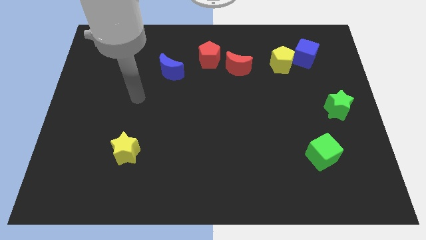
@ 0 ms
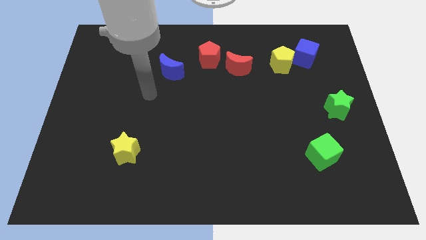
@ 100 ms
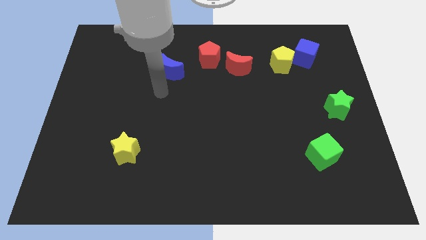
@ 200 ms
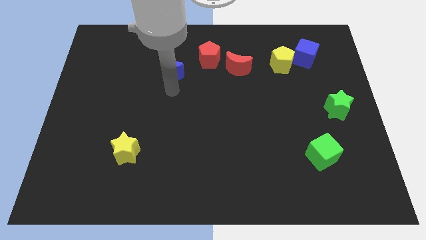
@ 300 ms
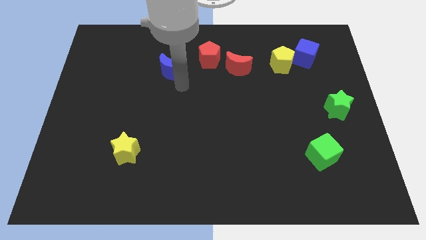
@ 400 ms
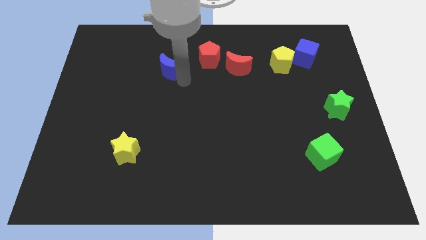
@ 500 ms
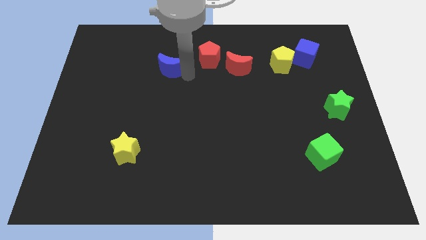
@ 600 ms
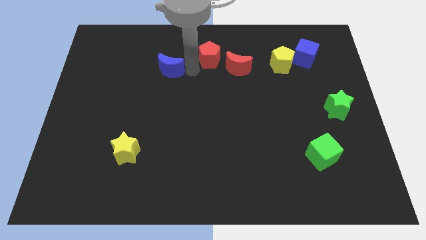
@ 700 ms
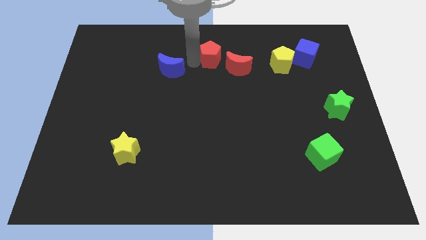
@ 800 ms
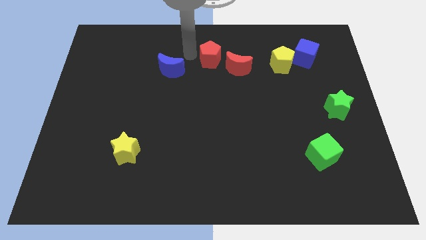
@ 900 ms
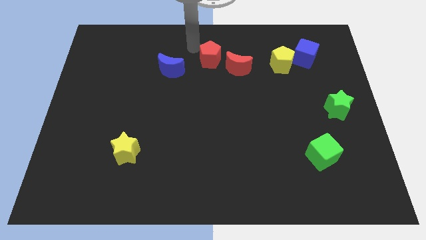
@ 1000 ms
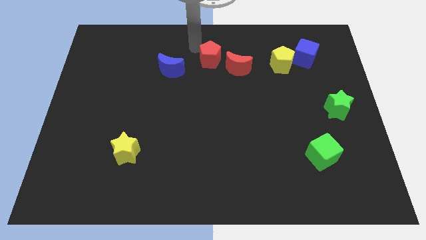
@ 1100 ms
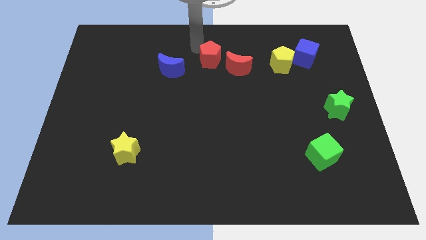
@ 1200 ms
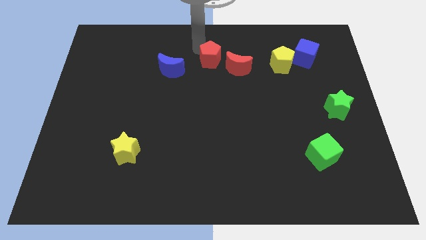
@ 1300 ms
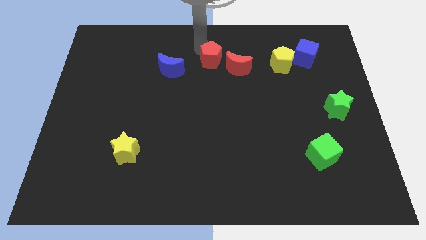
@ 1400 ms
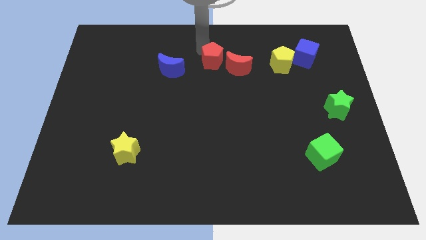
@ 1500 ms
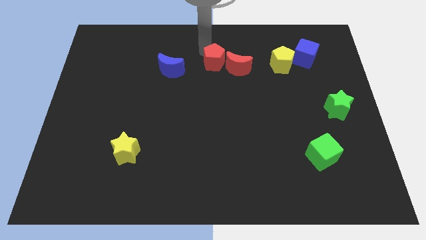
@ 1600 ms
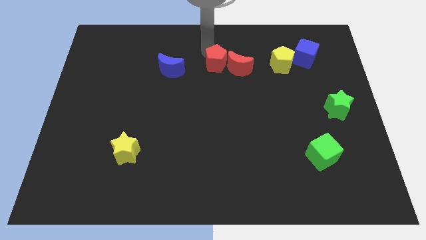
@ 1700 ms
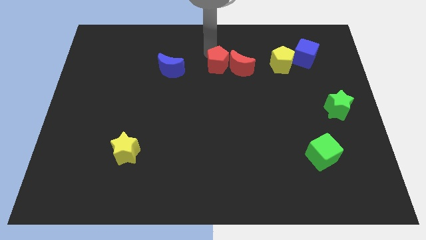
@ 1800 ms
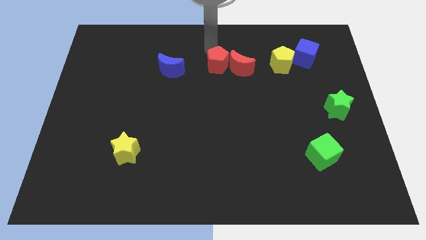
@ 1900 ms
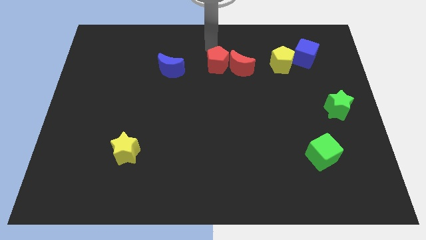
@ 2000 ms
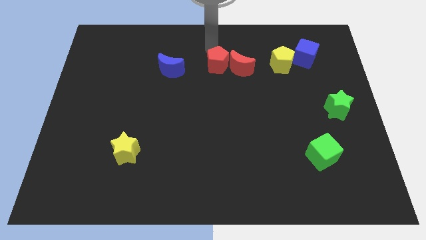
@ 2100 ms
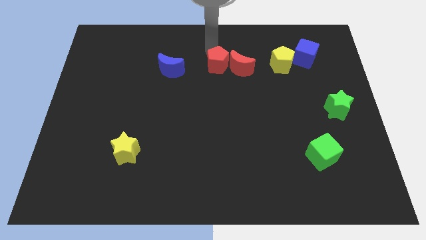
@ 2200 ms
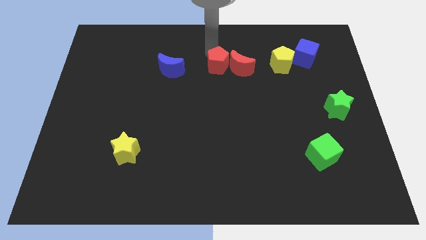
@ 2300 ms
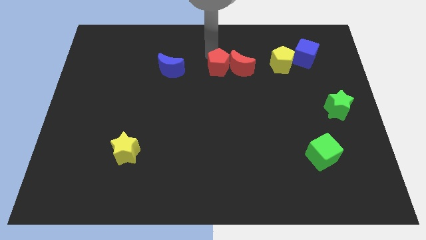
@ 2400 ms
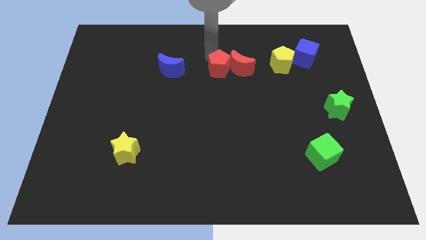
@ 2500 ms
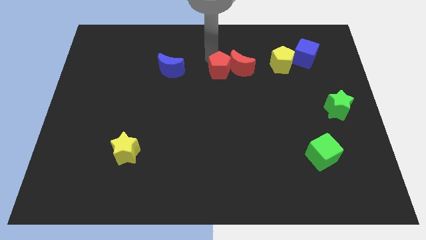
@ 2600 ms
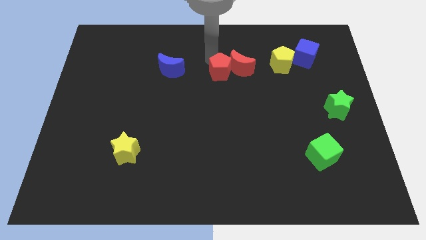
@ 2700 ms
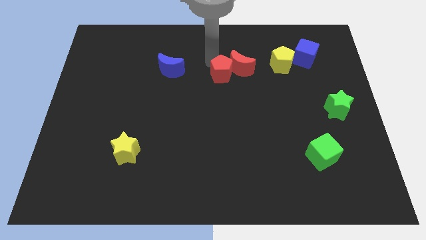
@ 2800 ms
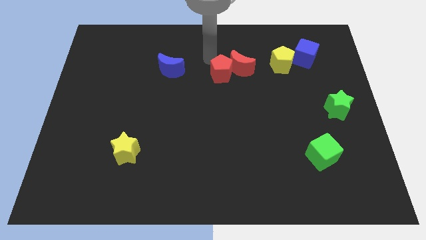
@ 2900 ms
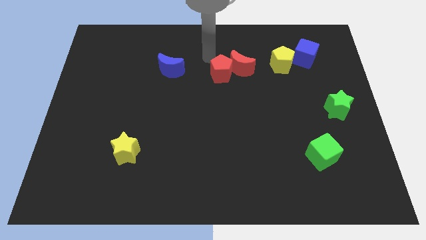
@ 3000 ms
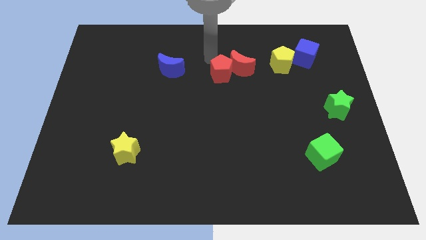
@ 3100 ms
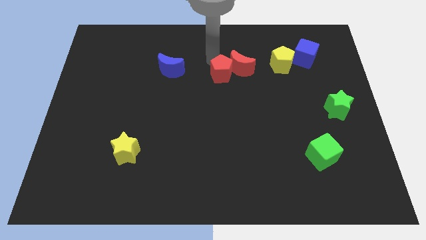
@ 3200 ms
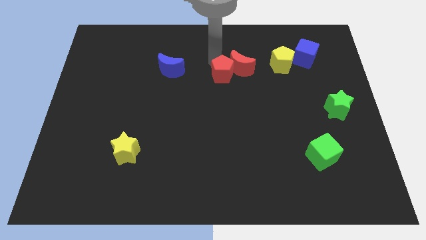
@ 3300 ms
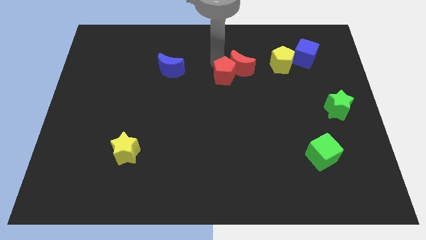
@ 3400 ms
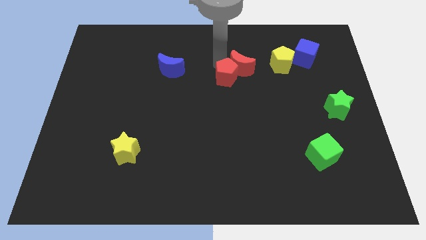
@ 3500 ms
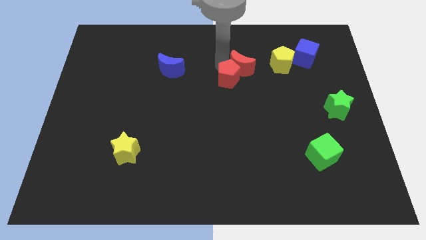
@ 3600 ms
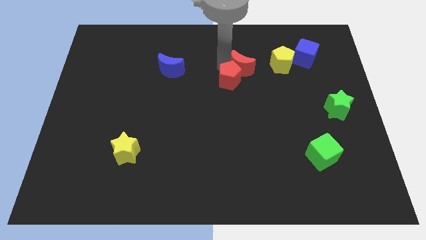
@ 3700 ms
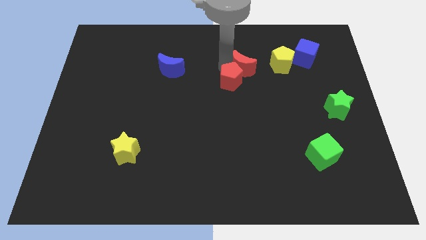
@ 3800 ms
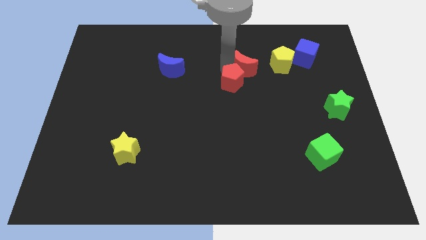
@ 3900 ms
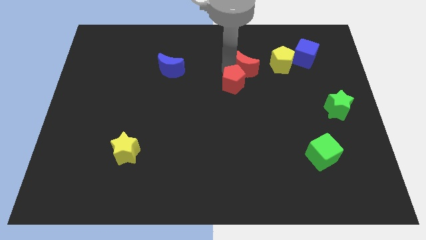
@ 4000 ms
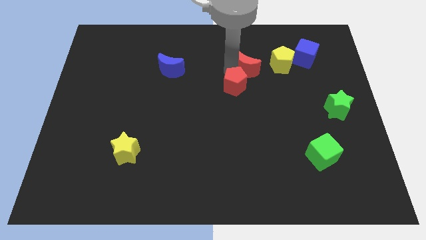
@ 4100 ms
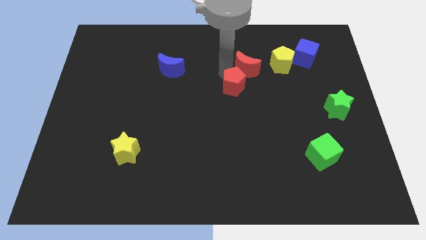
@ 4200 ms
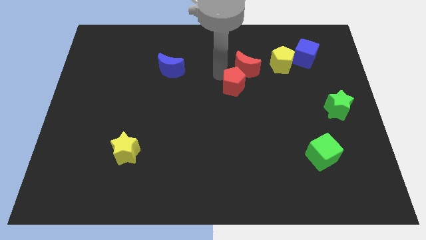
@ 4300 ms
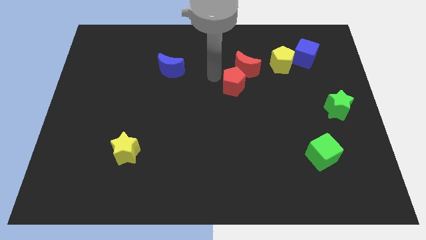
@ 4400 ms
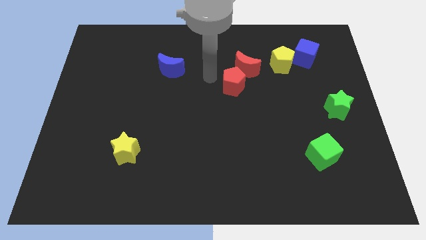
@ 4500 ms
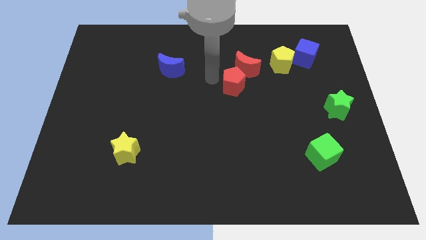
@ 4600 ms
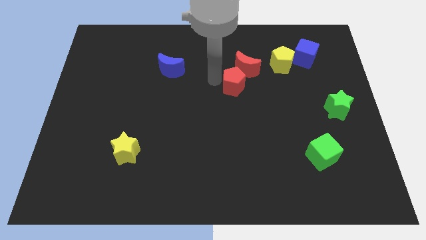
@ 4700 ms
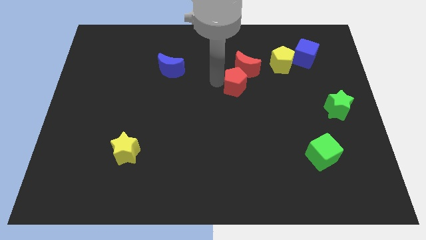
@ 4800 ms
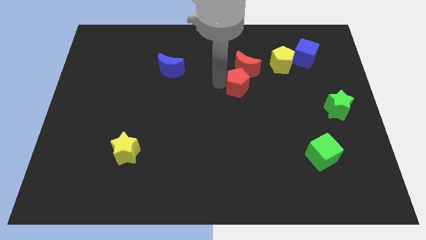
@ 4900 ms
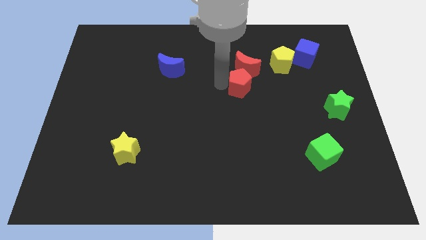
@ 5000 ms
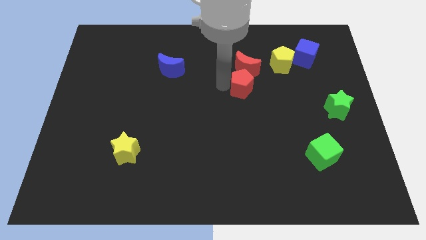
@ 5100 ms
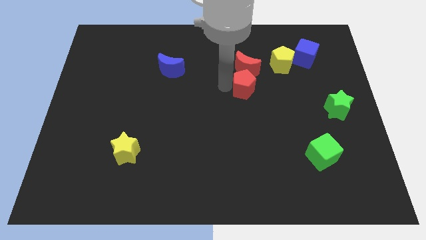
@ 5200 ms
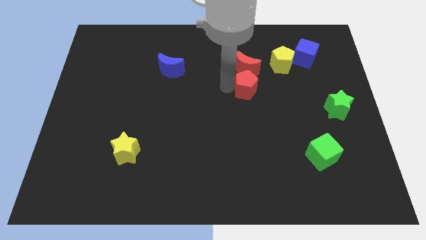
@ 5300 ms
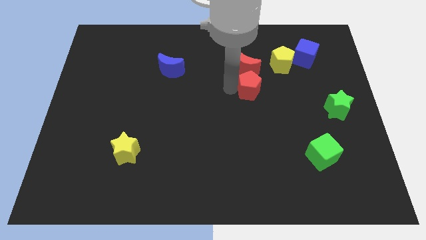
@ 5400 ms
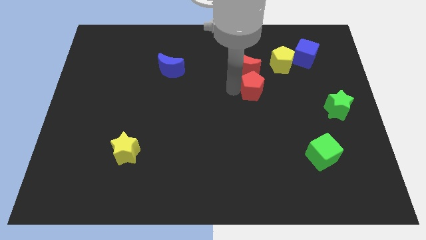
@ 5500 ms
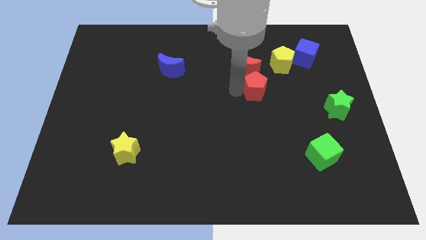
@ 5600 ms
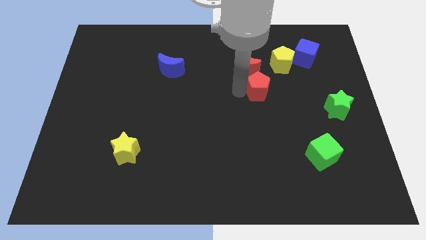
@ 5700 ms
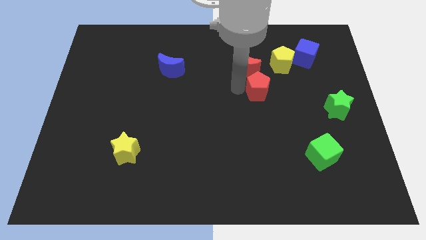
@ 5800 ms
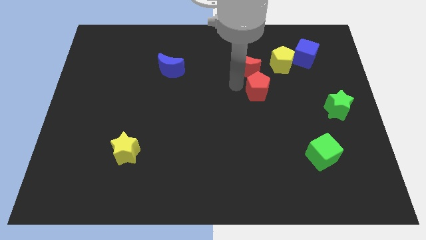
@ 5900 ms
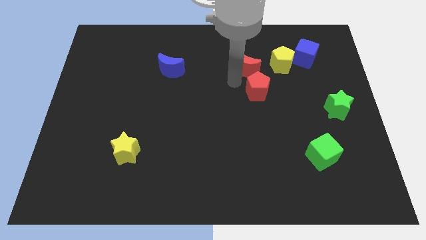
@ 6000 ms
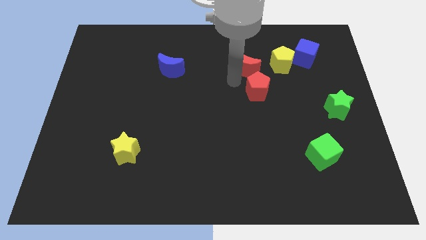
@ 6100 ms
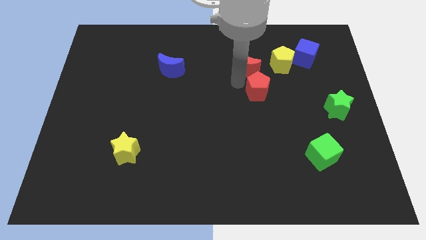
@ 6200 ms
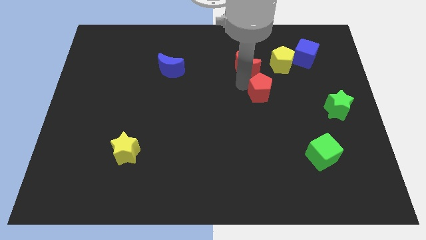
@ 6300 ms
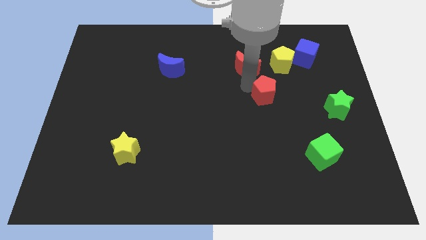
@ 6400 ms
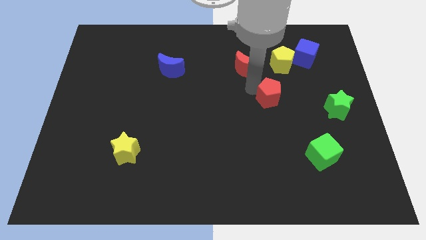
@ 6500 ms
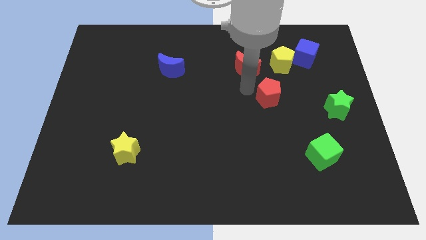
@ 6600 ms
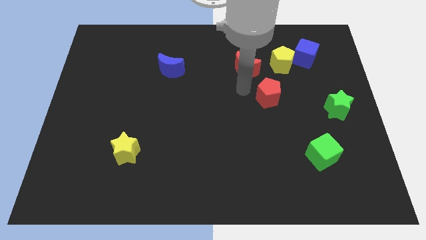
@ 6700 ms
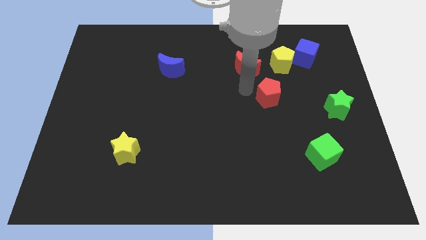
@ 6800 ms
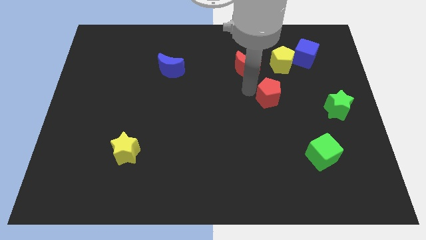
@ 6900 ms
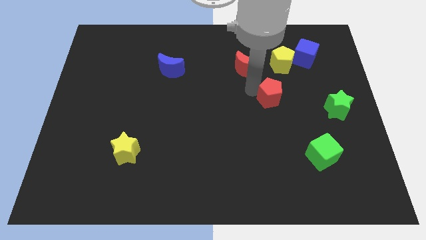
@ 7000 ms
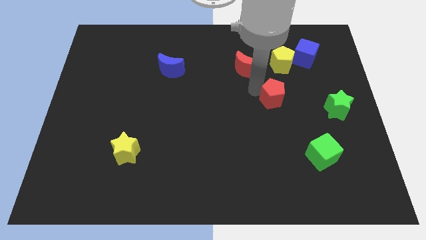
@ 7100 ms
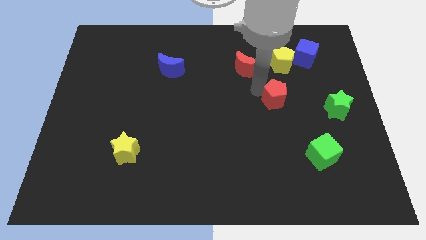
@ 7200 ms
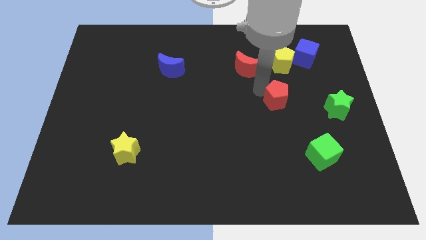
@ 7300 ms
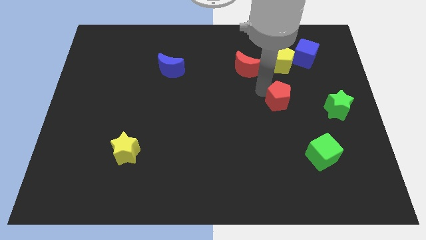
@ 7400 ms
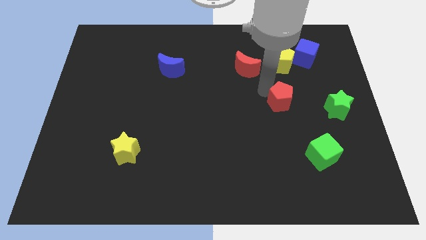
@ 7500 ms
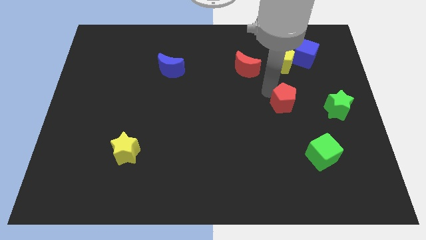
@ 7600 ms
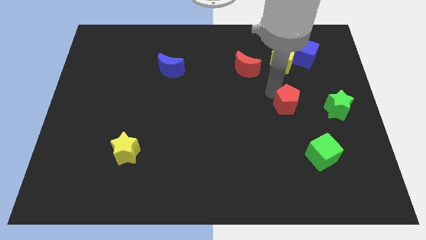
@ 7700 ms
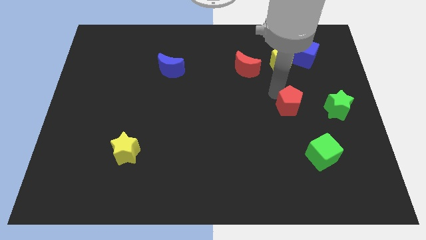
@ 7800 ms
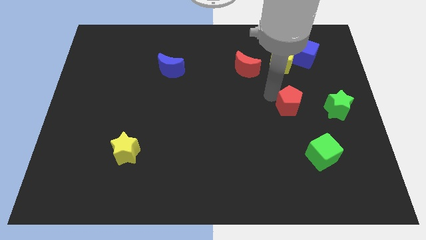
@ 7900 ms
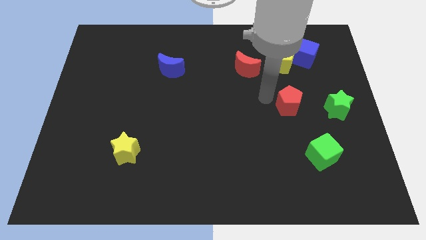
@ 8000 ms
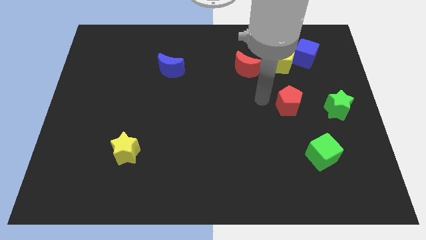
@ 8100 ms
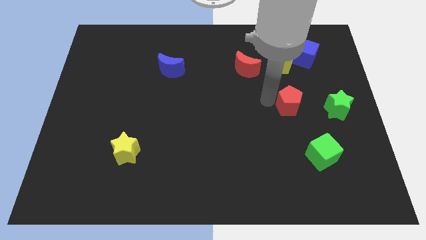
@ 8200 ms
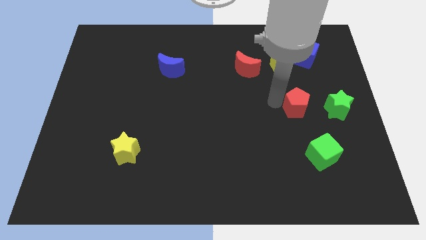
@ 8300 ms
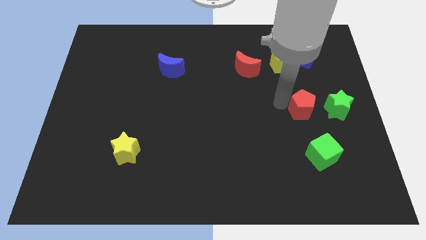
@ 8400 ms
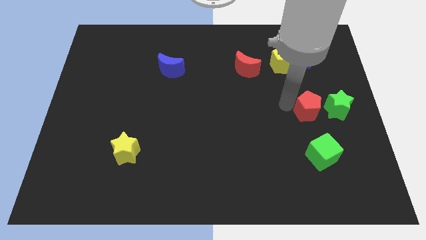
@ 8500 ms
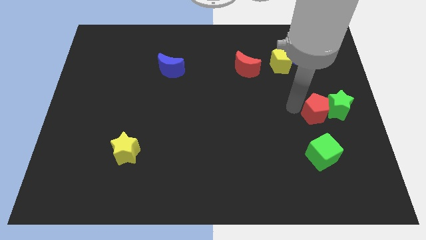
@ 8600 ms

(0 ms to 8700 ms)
push the red pentagon close to the green star
